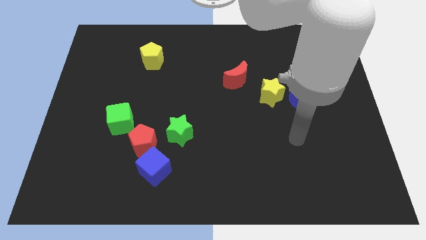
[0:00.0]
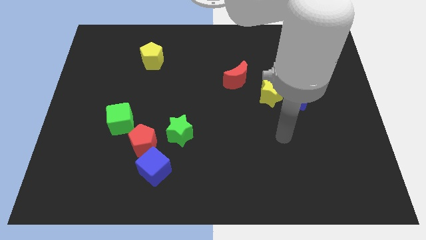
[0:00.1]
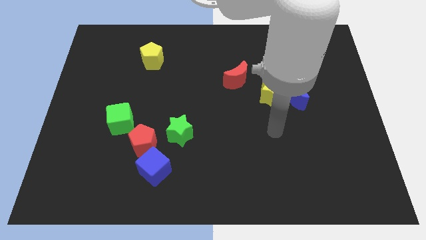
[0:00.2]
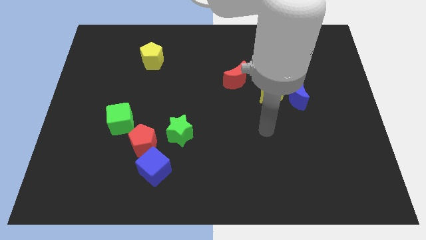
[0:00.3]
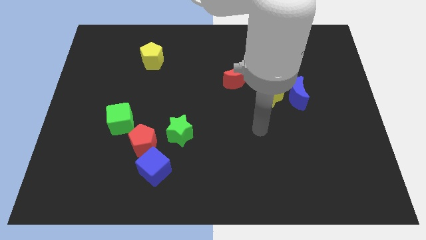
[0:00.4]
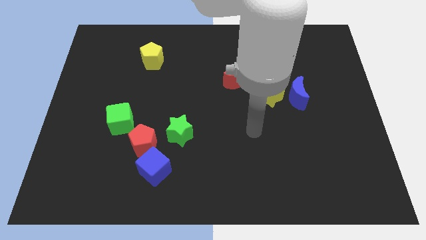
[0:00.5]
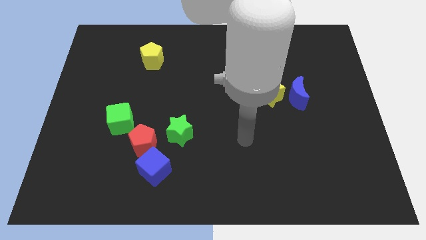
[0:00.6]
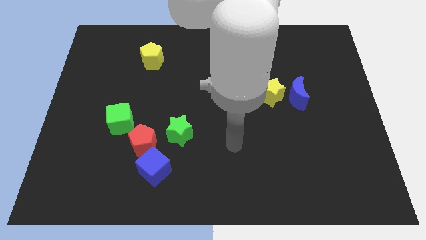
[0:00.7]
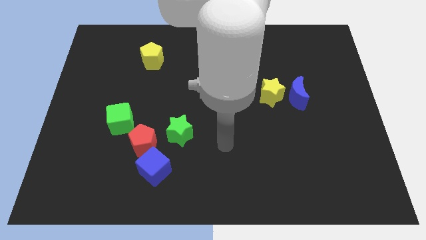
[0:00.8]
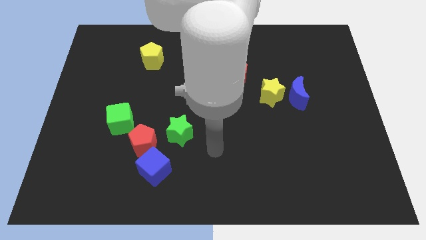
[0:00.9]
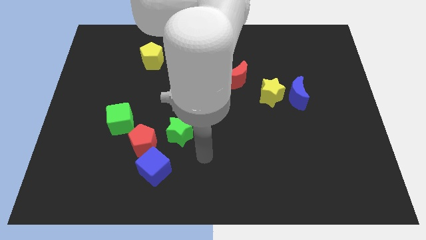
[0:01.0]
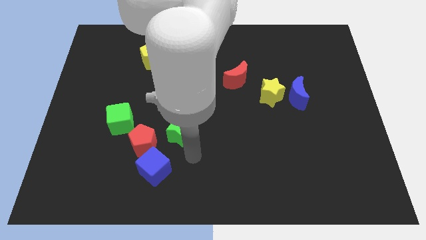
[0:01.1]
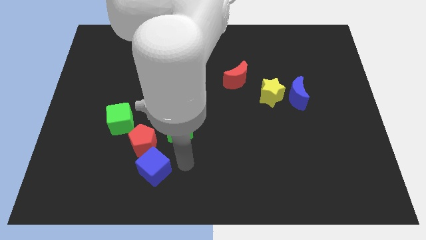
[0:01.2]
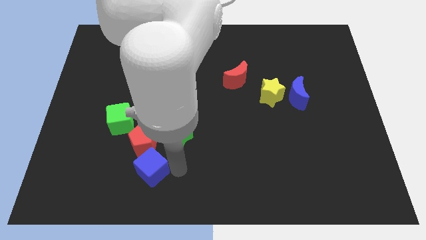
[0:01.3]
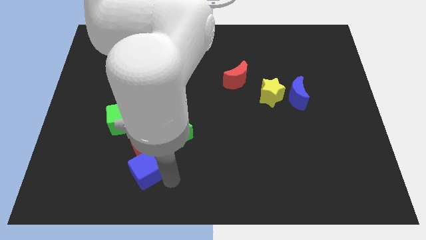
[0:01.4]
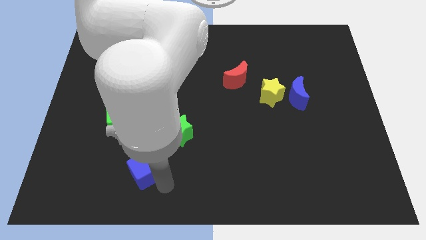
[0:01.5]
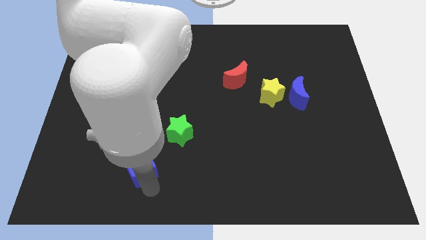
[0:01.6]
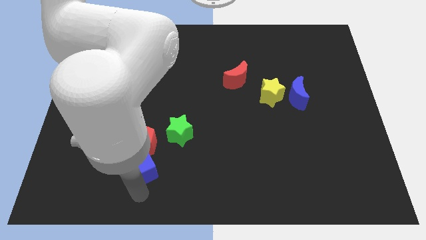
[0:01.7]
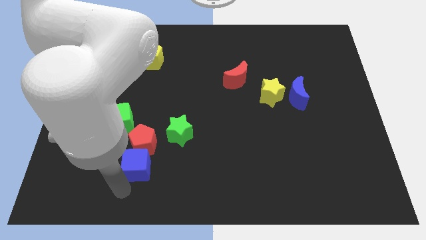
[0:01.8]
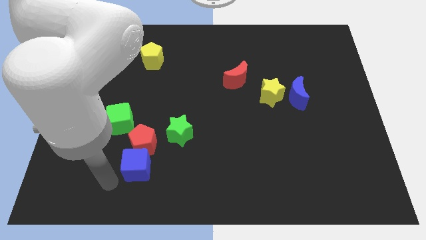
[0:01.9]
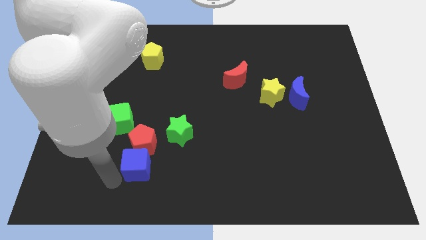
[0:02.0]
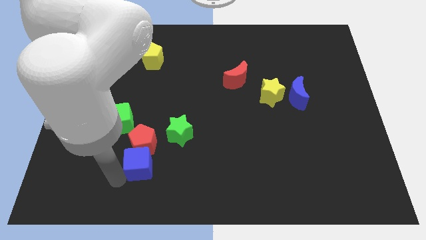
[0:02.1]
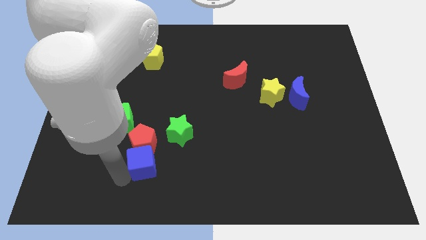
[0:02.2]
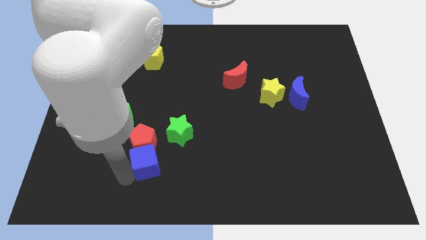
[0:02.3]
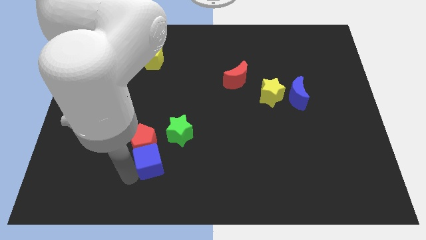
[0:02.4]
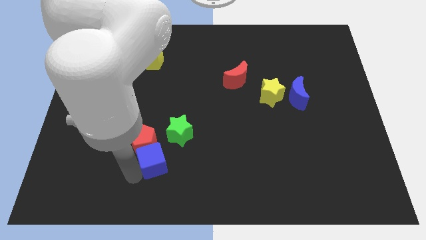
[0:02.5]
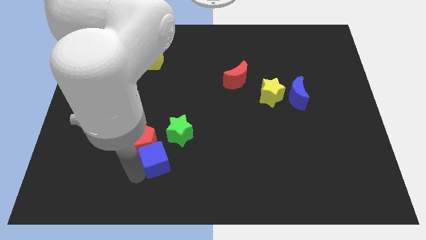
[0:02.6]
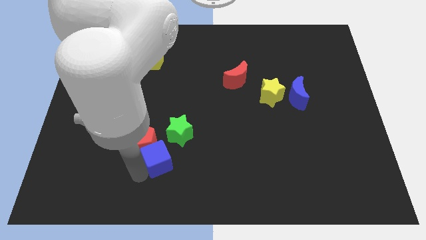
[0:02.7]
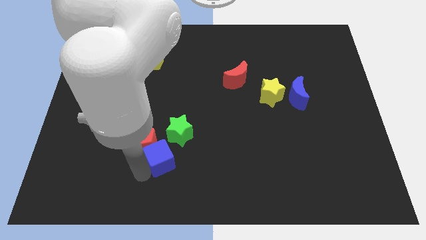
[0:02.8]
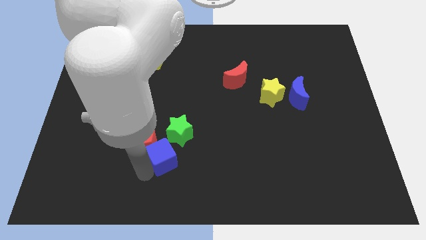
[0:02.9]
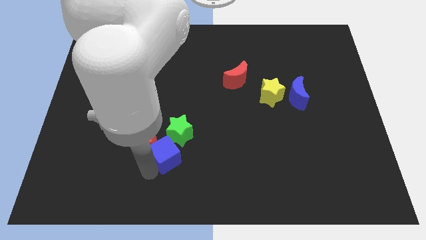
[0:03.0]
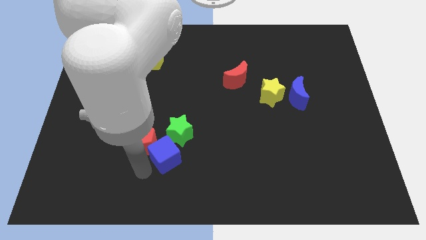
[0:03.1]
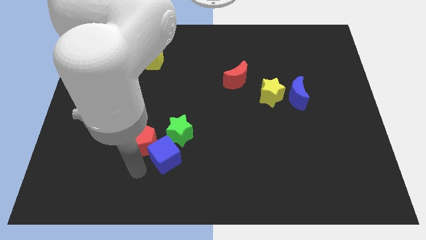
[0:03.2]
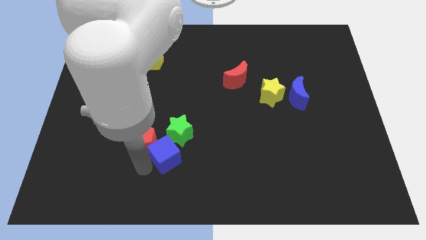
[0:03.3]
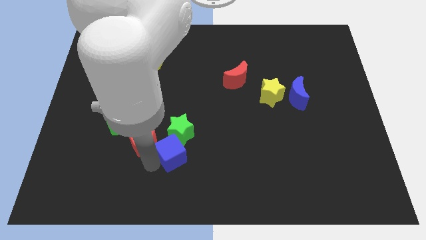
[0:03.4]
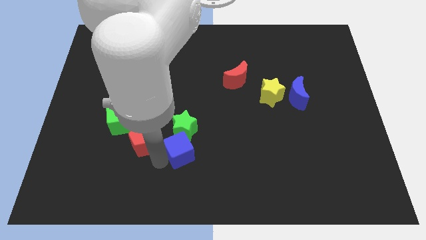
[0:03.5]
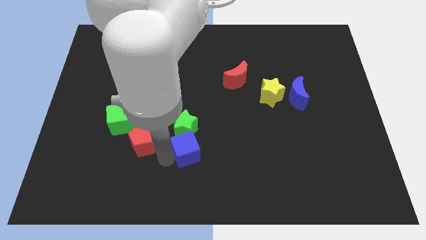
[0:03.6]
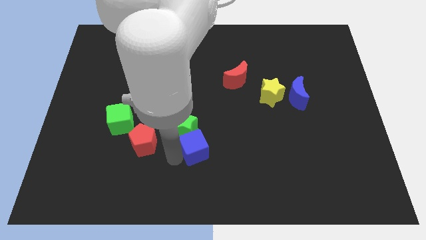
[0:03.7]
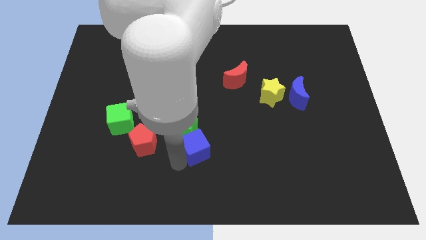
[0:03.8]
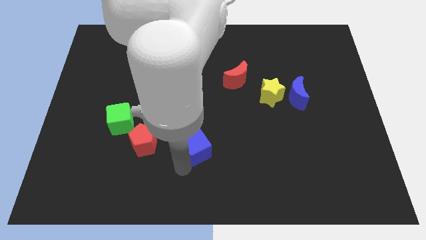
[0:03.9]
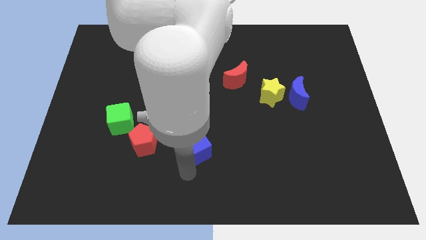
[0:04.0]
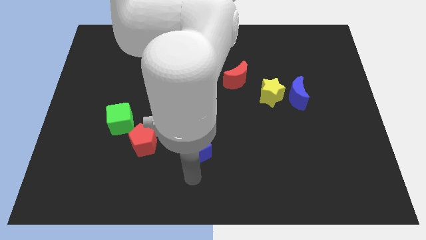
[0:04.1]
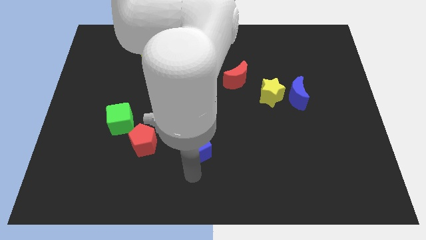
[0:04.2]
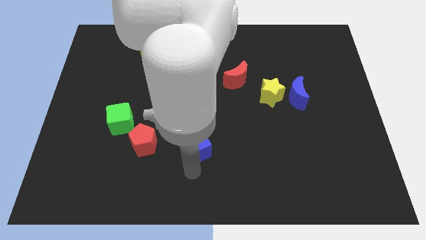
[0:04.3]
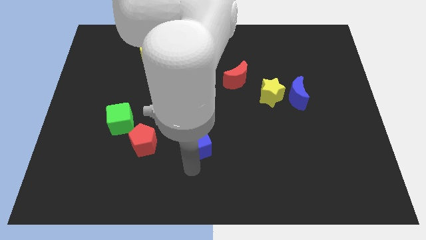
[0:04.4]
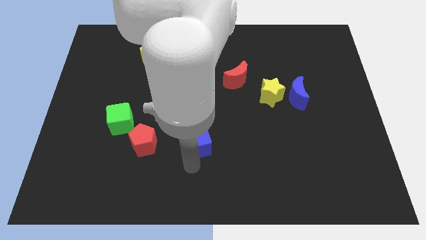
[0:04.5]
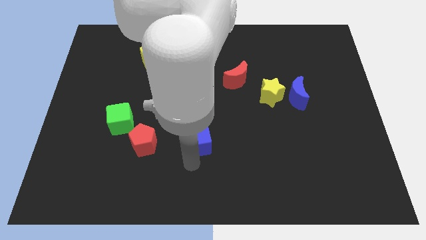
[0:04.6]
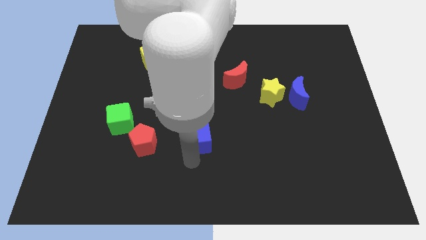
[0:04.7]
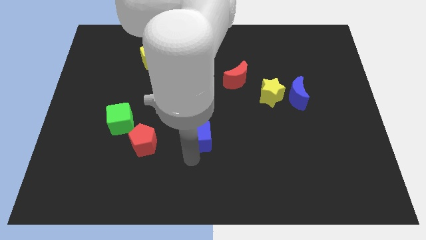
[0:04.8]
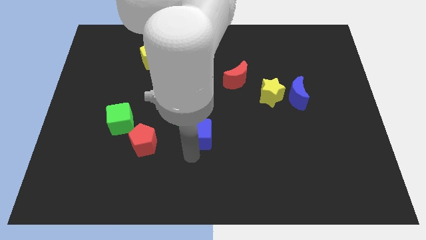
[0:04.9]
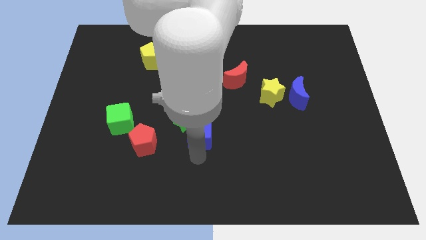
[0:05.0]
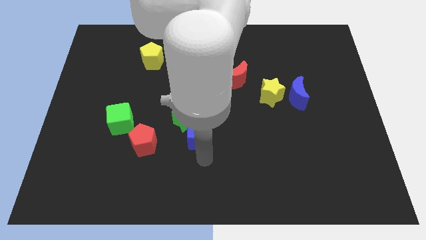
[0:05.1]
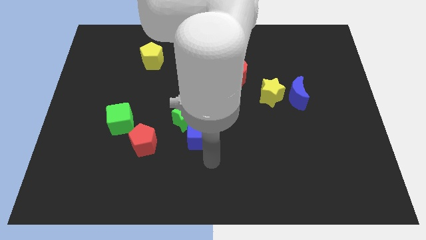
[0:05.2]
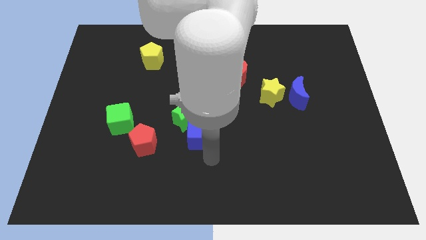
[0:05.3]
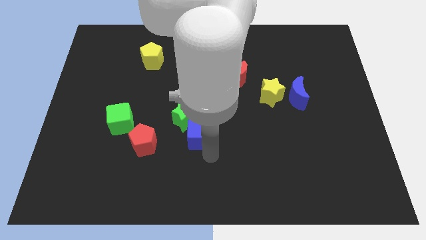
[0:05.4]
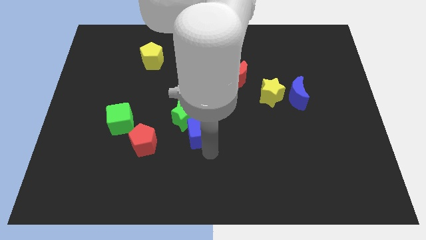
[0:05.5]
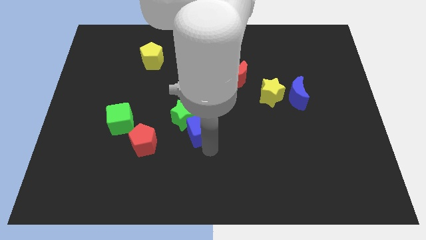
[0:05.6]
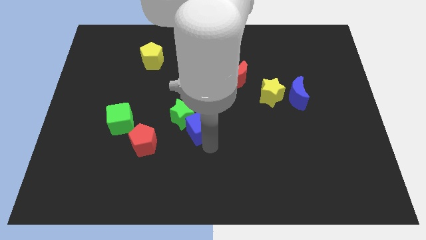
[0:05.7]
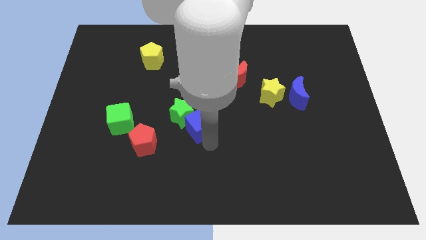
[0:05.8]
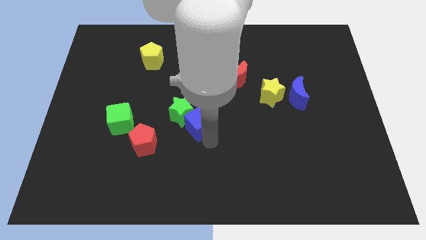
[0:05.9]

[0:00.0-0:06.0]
slightly move the blue cube upwards

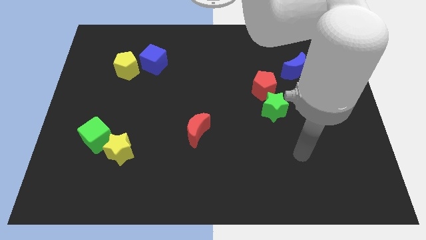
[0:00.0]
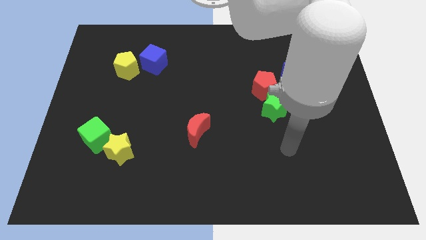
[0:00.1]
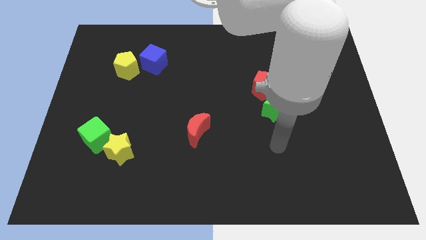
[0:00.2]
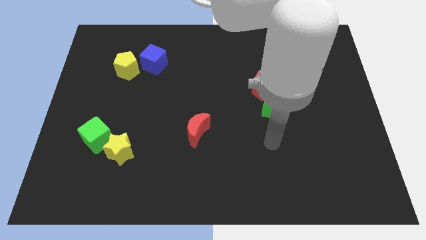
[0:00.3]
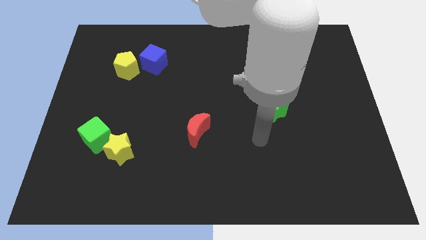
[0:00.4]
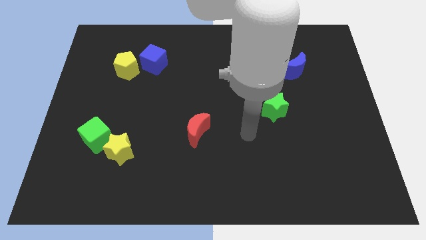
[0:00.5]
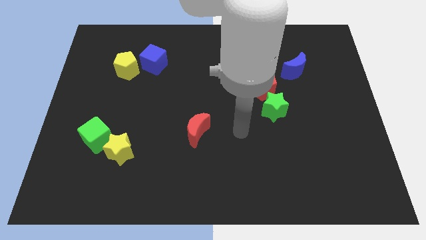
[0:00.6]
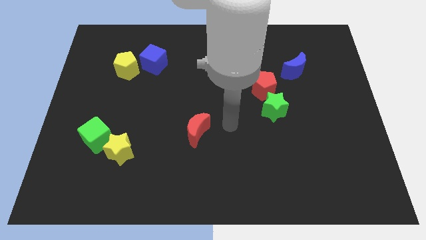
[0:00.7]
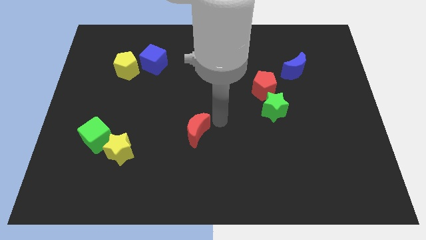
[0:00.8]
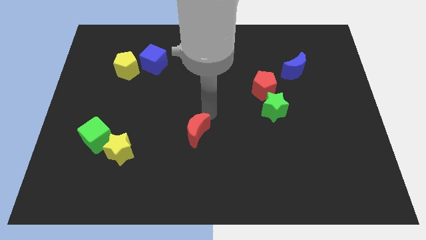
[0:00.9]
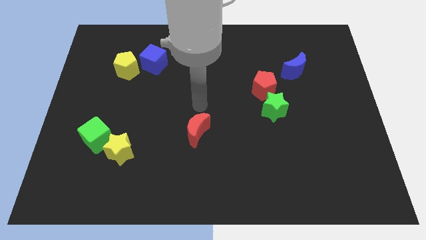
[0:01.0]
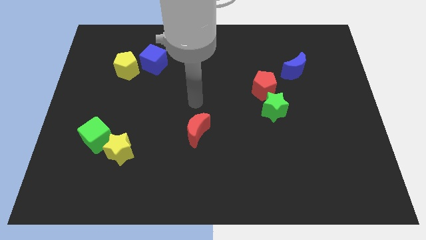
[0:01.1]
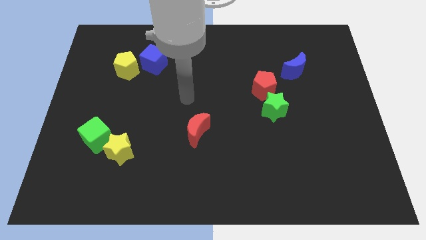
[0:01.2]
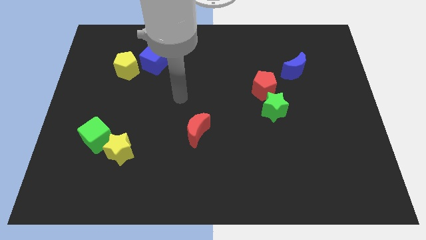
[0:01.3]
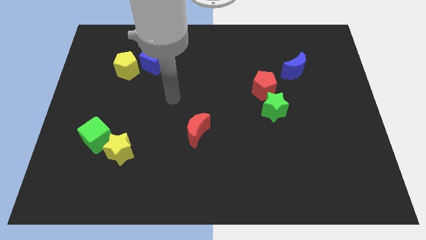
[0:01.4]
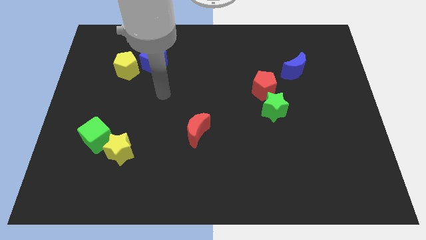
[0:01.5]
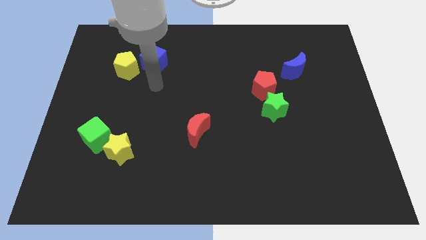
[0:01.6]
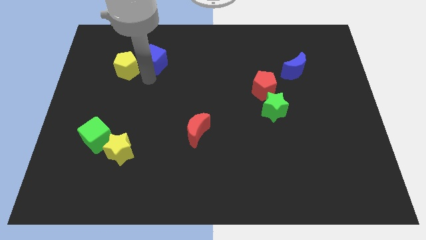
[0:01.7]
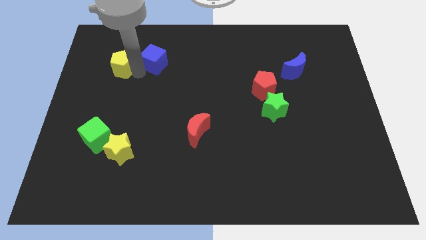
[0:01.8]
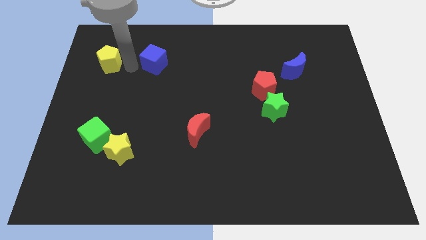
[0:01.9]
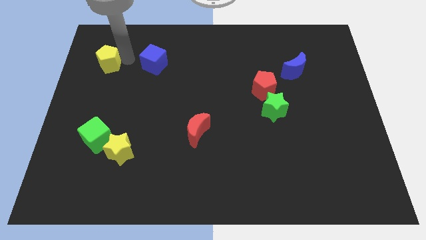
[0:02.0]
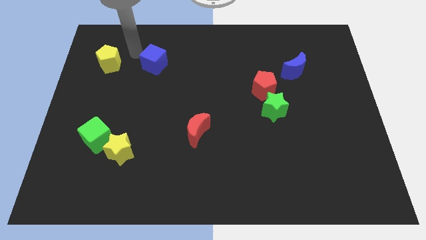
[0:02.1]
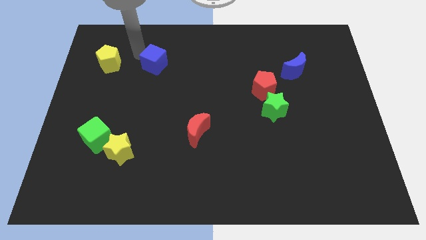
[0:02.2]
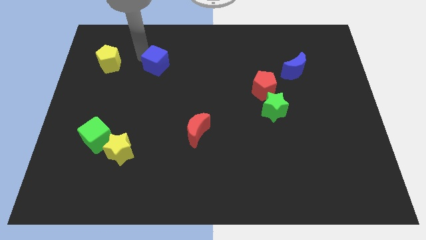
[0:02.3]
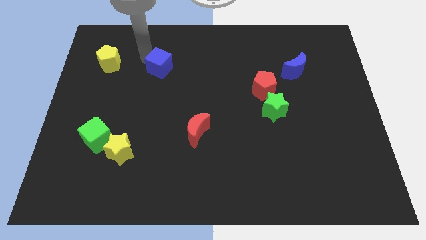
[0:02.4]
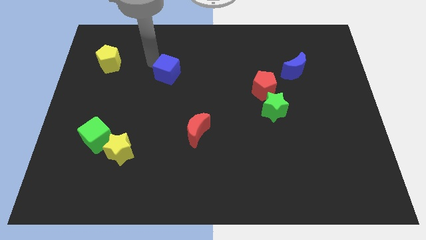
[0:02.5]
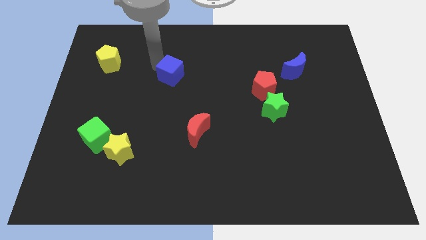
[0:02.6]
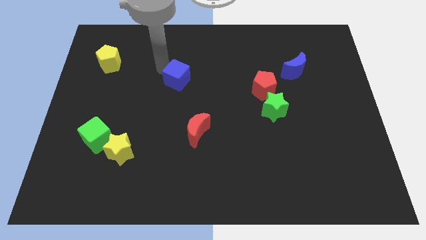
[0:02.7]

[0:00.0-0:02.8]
push the blue cube downwards and then right a bit
